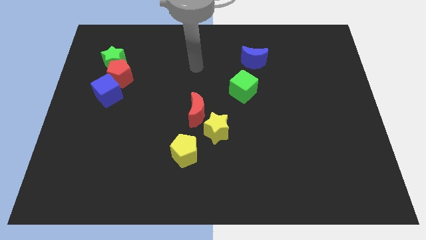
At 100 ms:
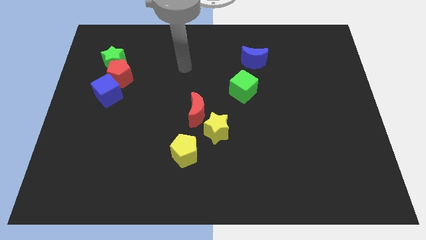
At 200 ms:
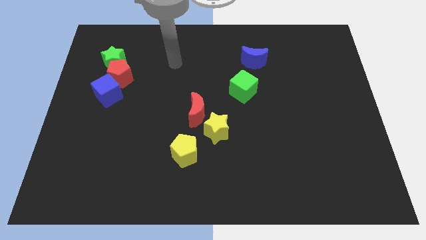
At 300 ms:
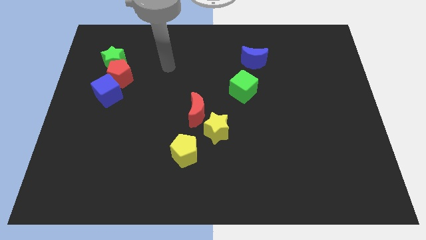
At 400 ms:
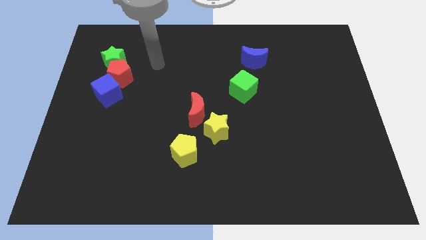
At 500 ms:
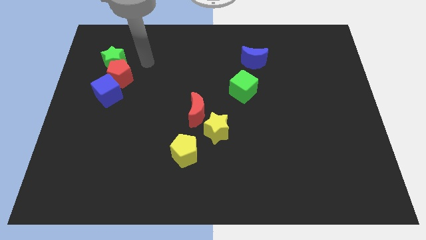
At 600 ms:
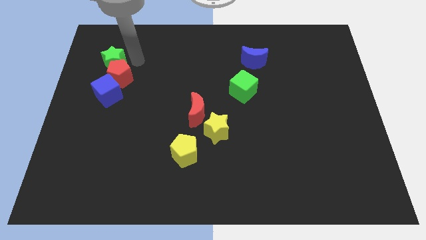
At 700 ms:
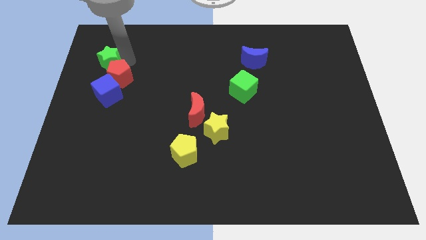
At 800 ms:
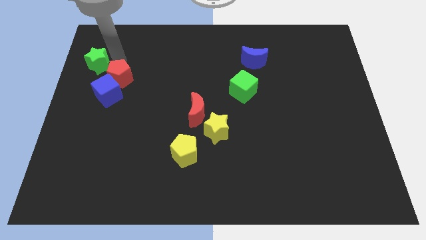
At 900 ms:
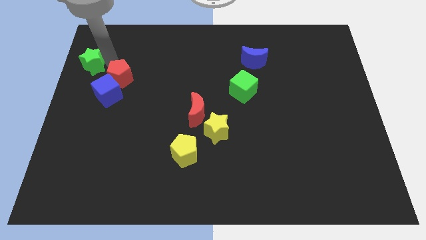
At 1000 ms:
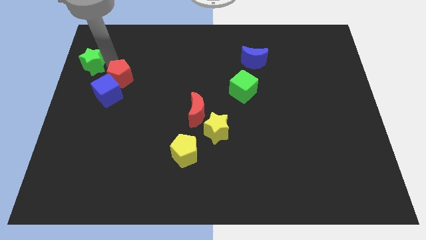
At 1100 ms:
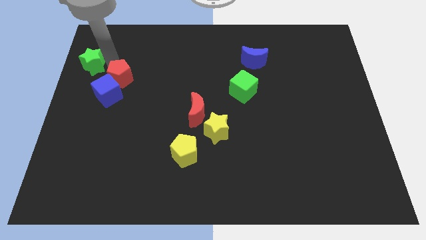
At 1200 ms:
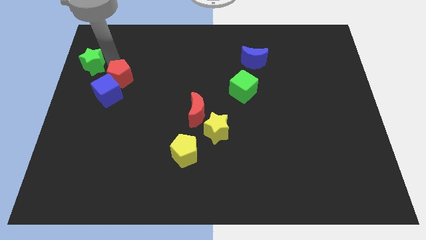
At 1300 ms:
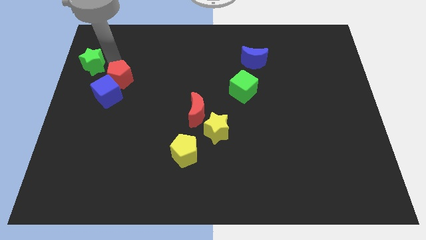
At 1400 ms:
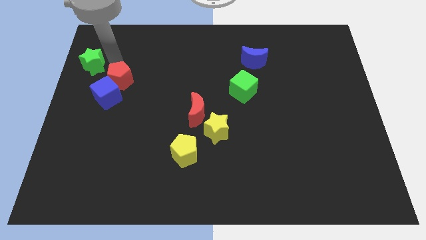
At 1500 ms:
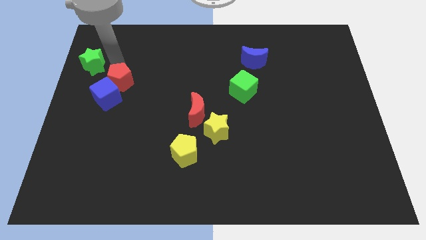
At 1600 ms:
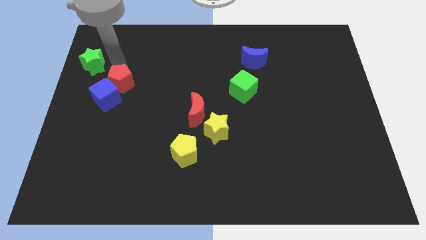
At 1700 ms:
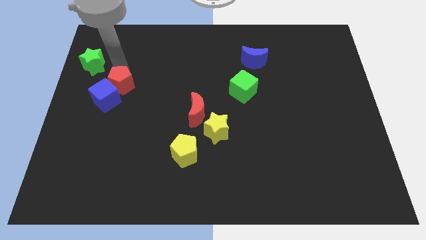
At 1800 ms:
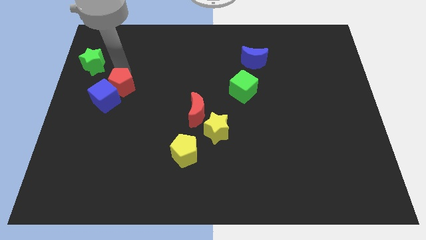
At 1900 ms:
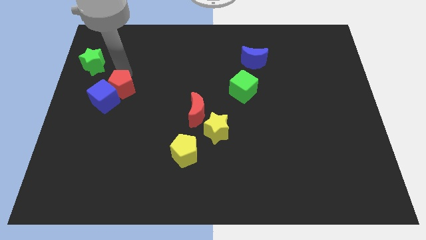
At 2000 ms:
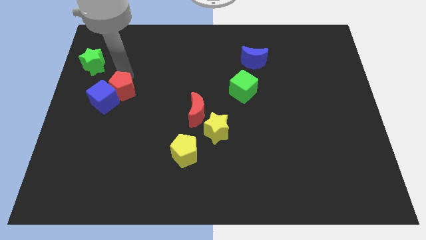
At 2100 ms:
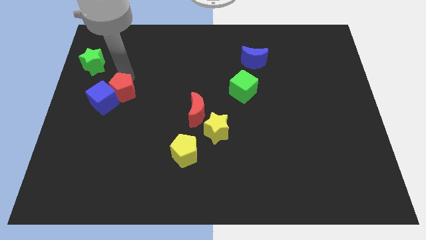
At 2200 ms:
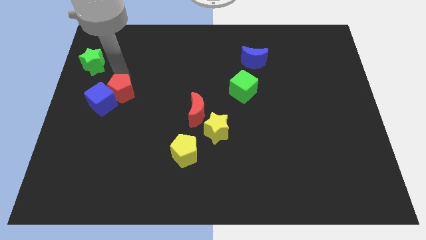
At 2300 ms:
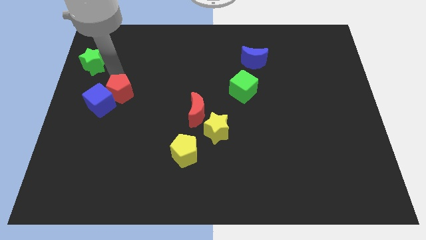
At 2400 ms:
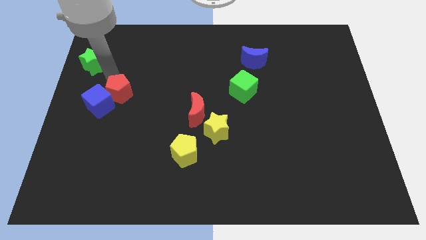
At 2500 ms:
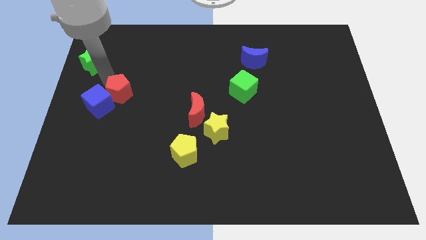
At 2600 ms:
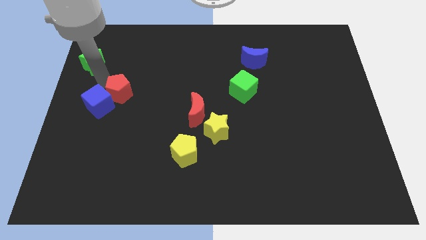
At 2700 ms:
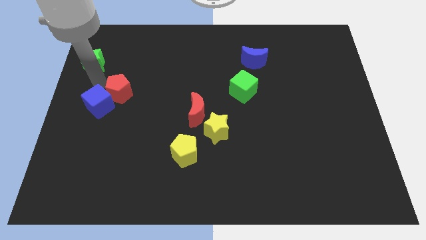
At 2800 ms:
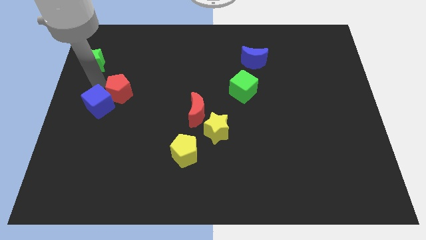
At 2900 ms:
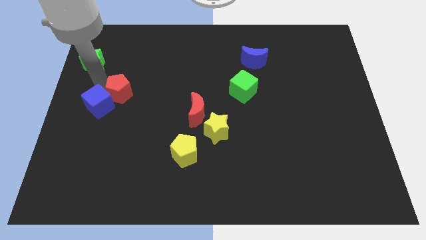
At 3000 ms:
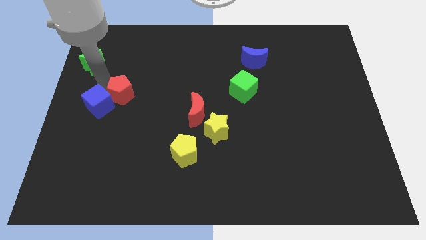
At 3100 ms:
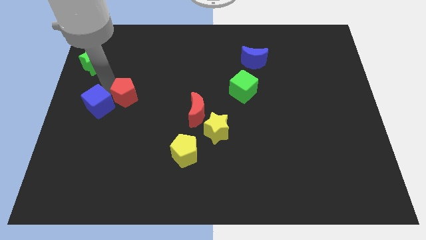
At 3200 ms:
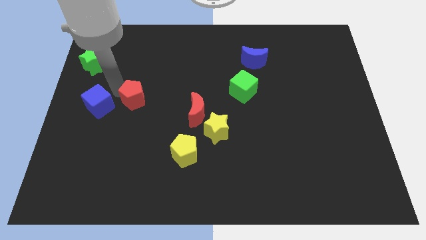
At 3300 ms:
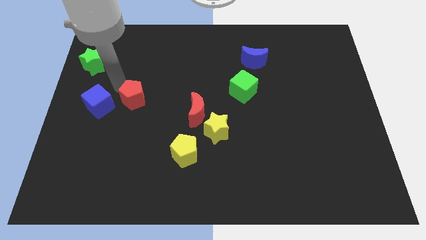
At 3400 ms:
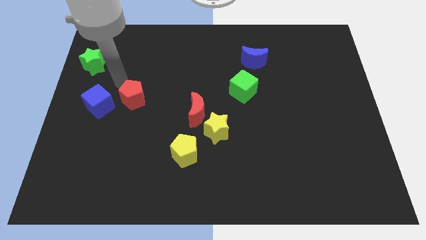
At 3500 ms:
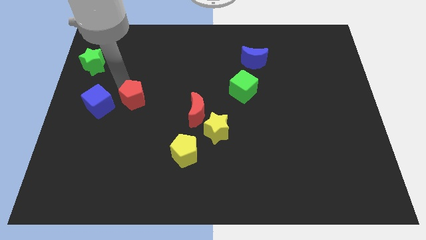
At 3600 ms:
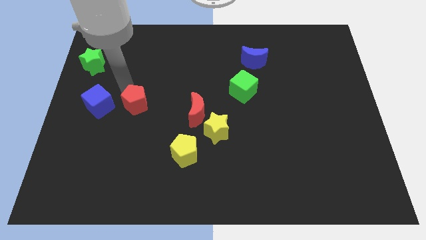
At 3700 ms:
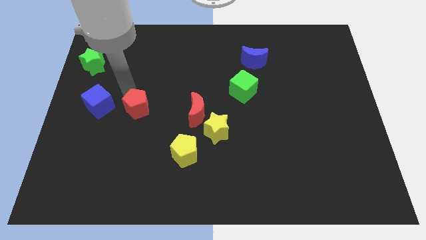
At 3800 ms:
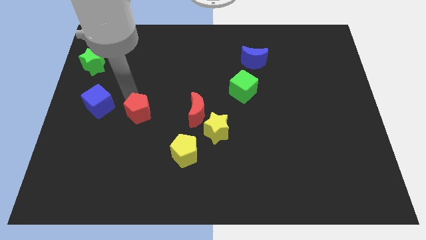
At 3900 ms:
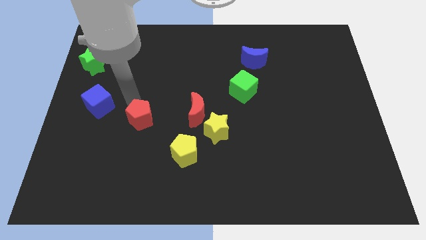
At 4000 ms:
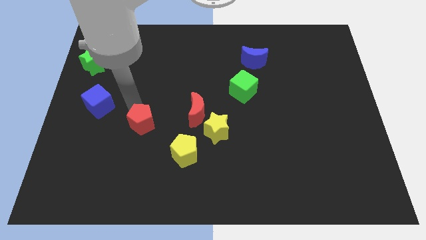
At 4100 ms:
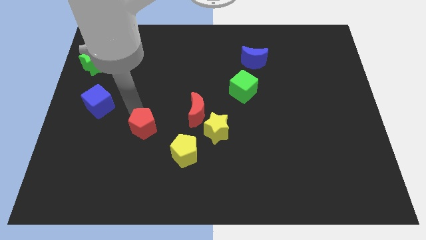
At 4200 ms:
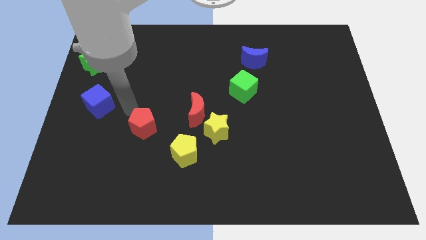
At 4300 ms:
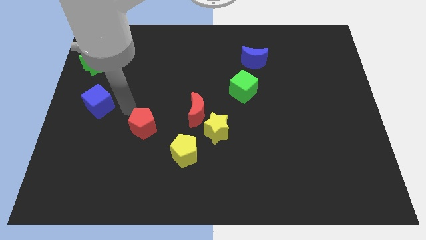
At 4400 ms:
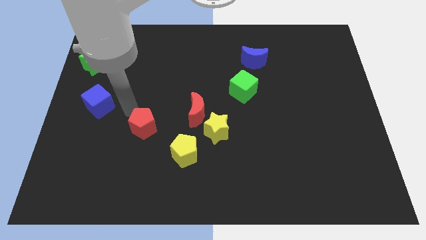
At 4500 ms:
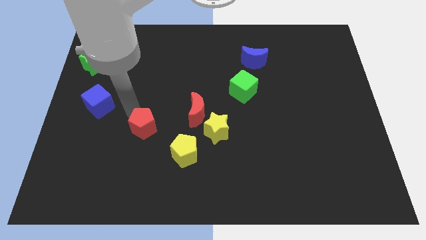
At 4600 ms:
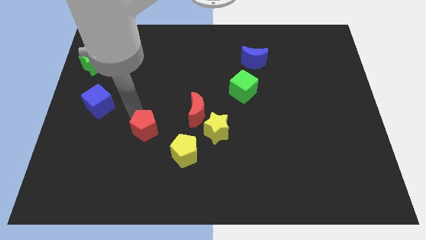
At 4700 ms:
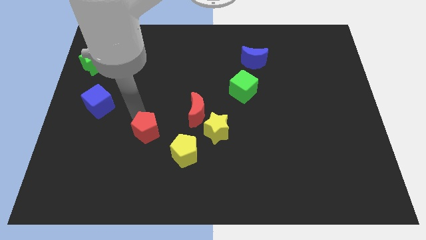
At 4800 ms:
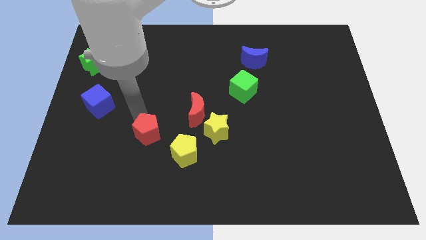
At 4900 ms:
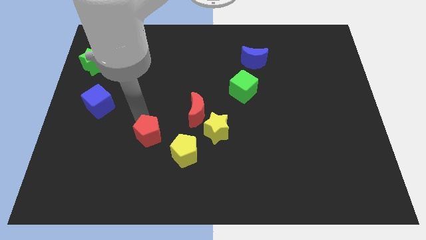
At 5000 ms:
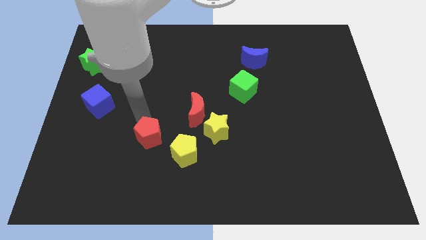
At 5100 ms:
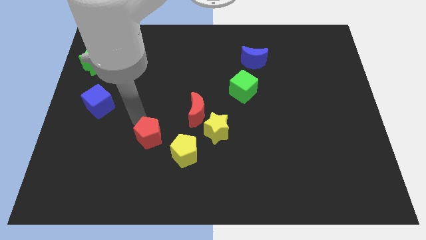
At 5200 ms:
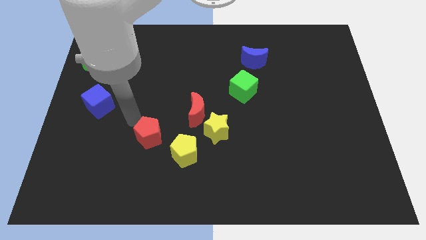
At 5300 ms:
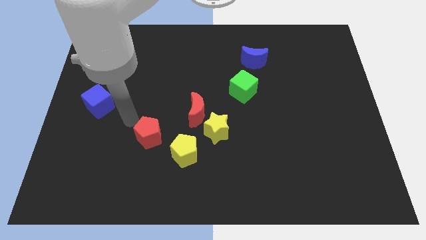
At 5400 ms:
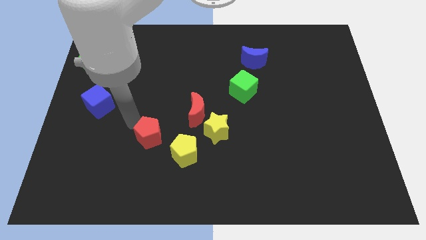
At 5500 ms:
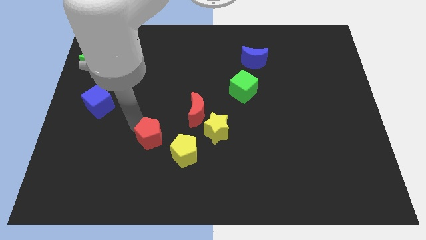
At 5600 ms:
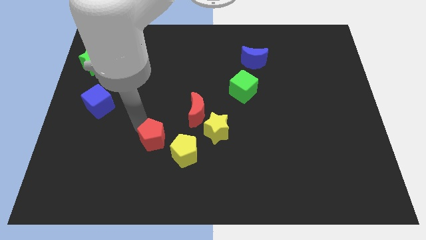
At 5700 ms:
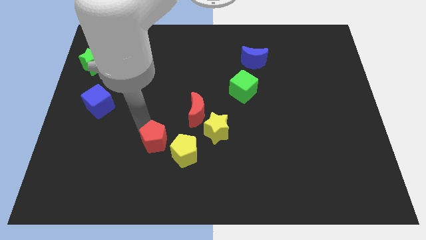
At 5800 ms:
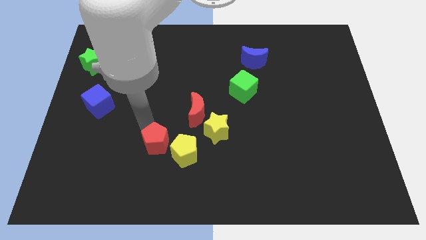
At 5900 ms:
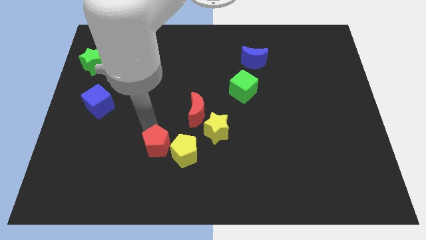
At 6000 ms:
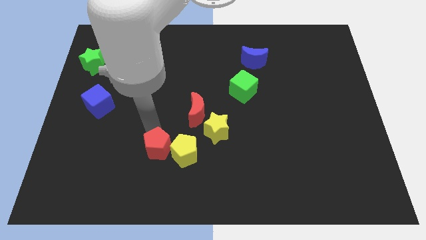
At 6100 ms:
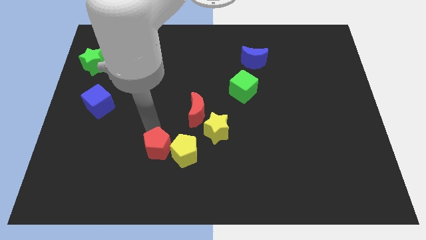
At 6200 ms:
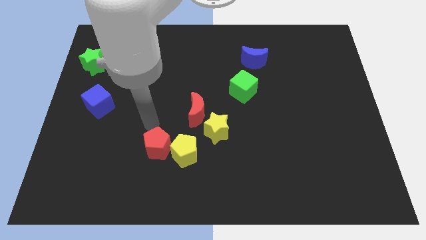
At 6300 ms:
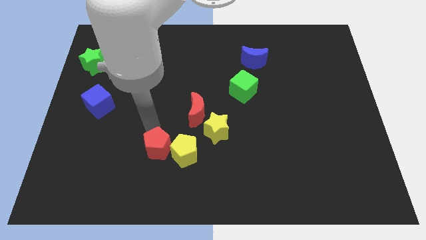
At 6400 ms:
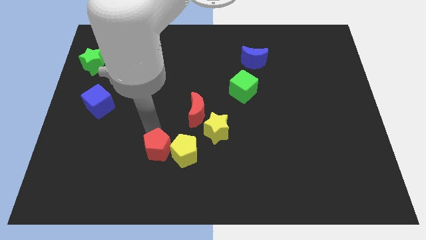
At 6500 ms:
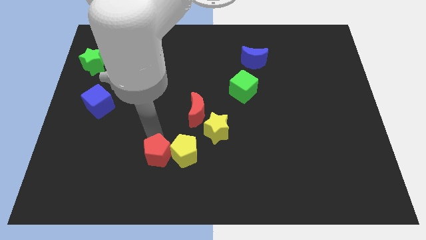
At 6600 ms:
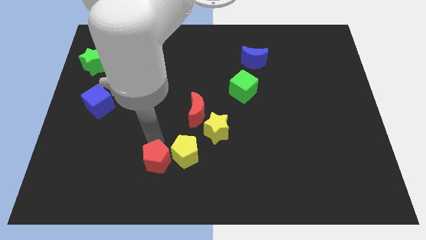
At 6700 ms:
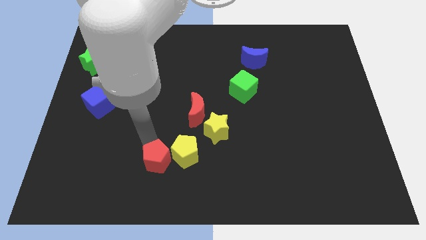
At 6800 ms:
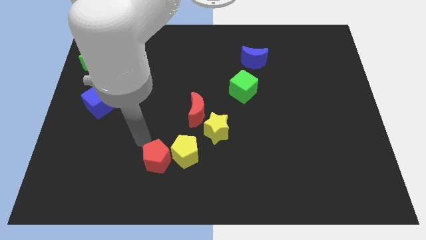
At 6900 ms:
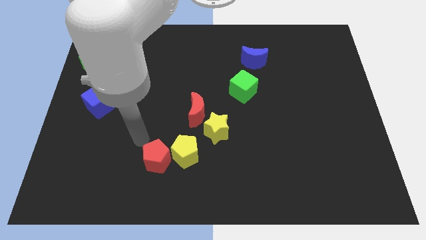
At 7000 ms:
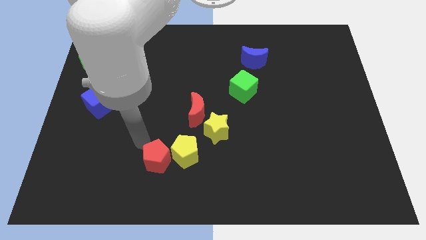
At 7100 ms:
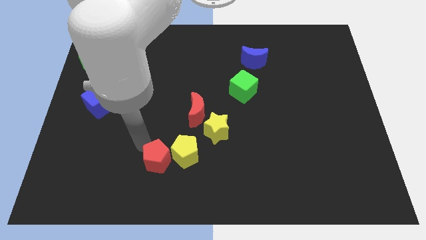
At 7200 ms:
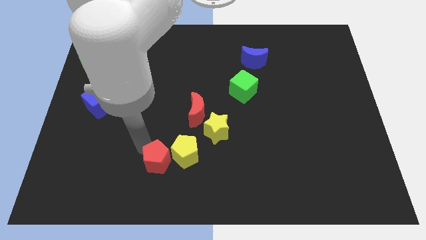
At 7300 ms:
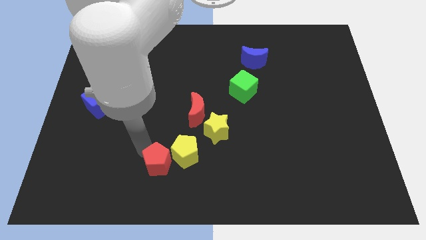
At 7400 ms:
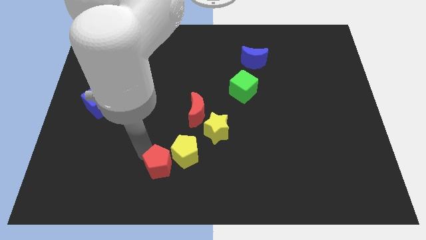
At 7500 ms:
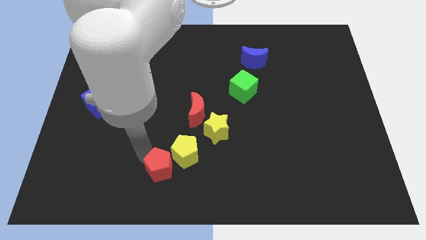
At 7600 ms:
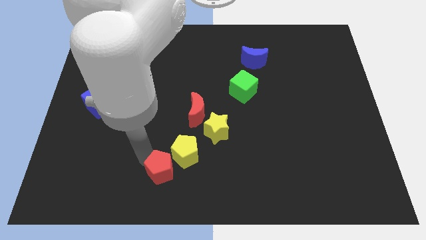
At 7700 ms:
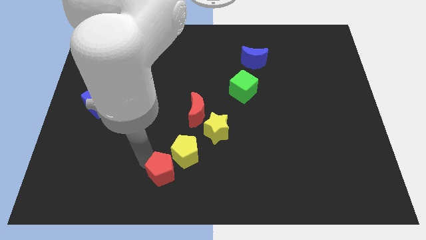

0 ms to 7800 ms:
put the red pentagon to the bottom

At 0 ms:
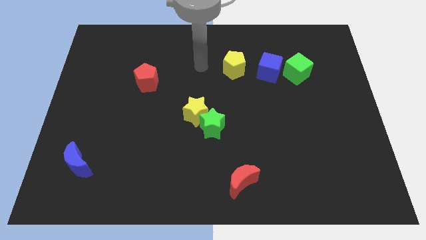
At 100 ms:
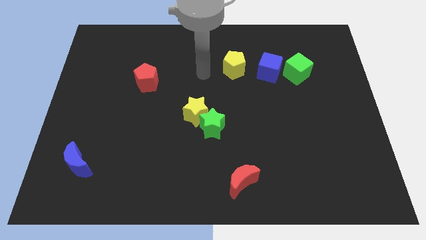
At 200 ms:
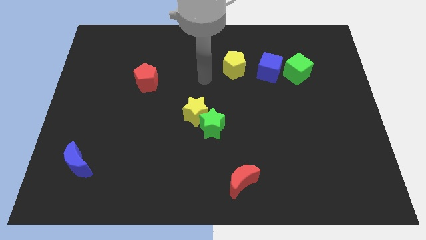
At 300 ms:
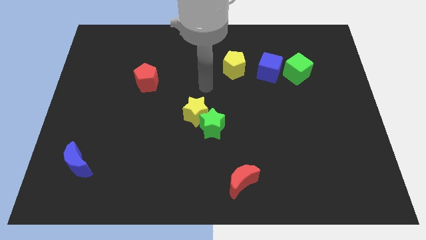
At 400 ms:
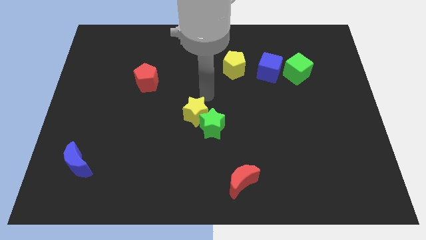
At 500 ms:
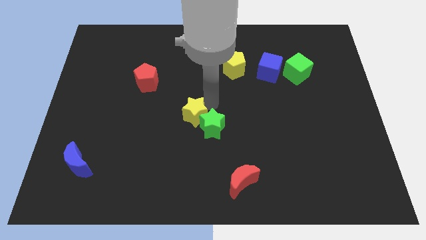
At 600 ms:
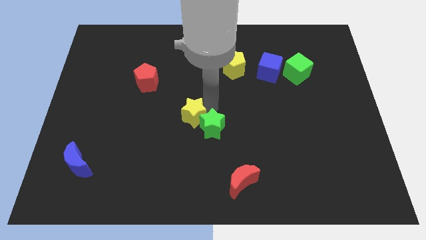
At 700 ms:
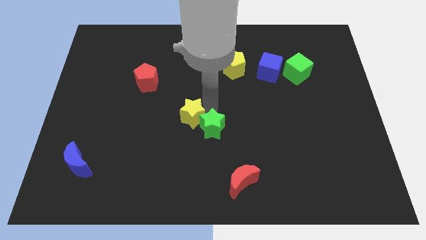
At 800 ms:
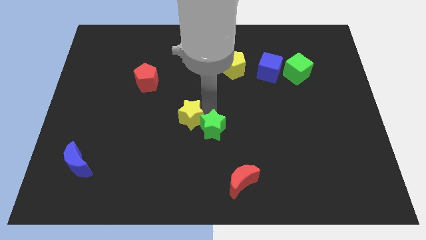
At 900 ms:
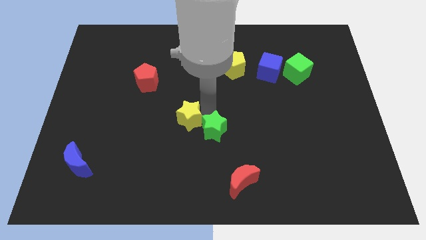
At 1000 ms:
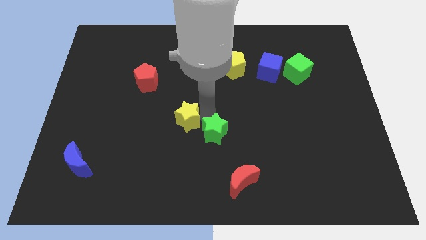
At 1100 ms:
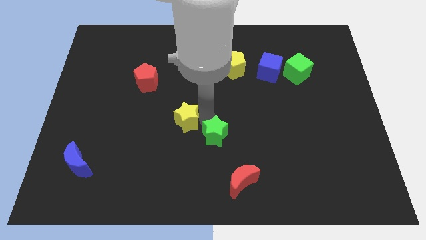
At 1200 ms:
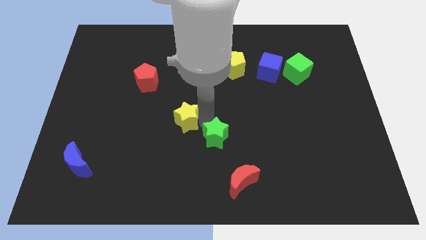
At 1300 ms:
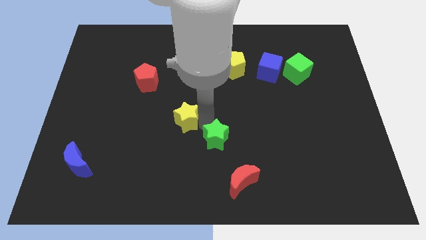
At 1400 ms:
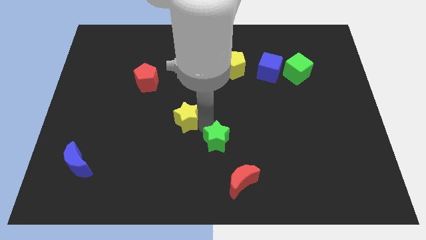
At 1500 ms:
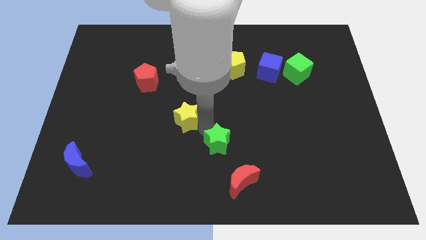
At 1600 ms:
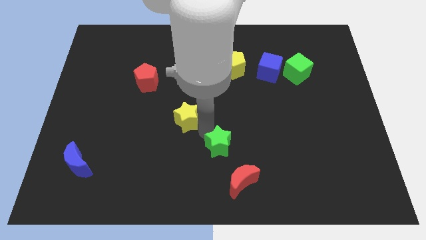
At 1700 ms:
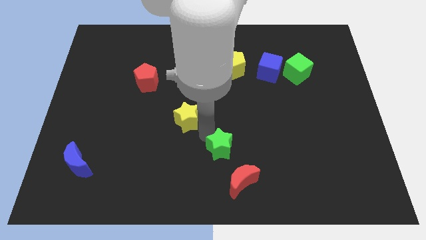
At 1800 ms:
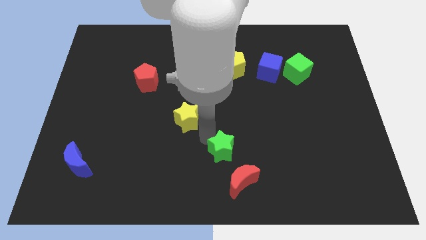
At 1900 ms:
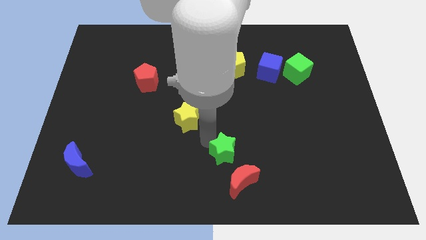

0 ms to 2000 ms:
slide the green star to the bottom
